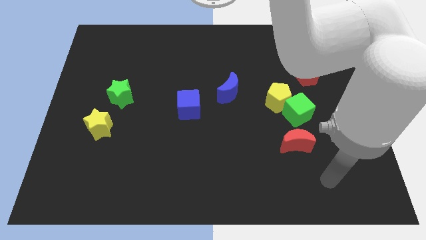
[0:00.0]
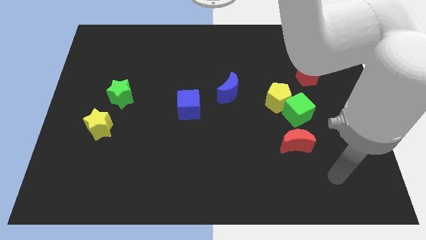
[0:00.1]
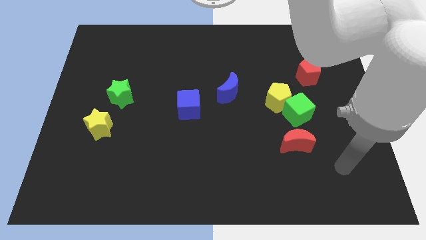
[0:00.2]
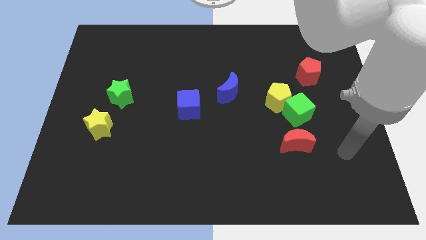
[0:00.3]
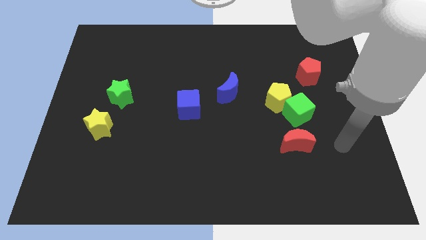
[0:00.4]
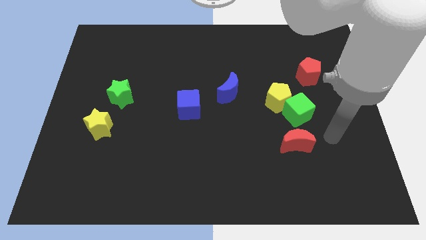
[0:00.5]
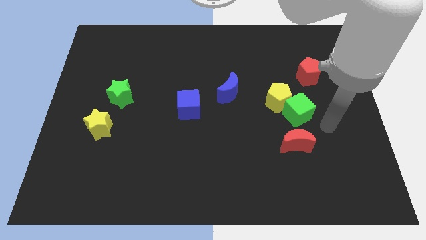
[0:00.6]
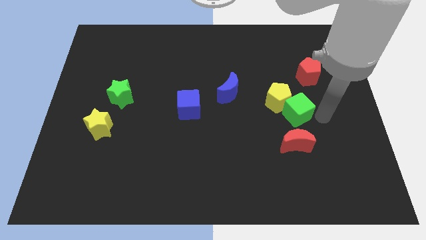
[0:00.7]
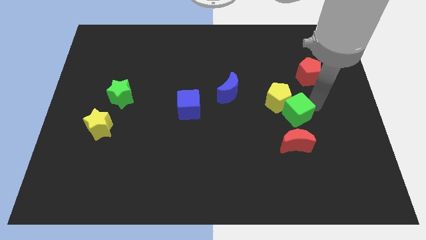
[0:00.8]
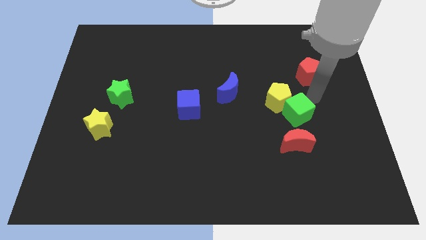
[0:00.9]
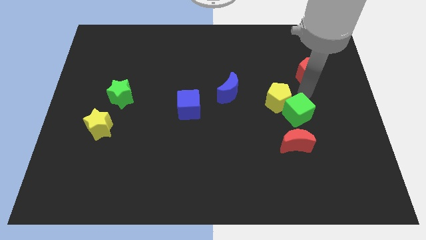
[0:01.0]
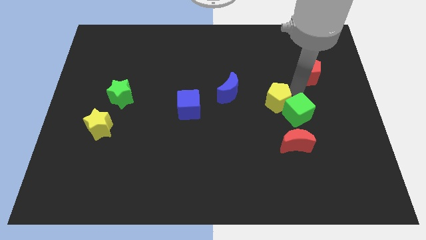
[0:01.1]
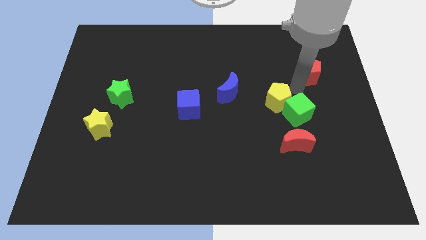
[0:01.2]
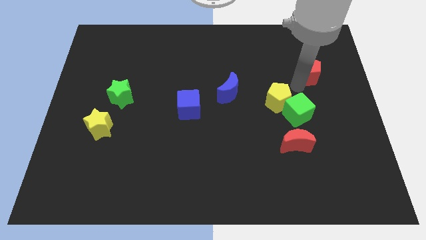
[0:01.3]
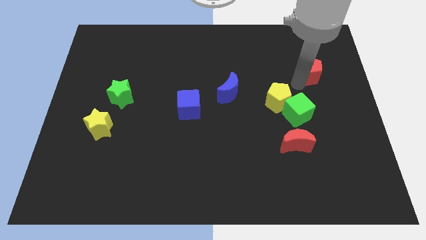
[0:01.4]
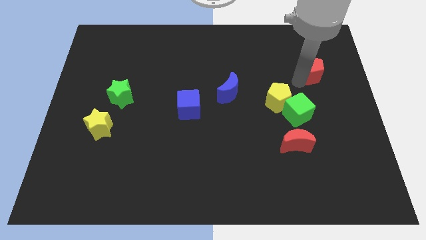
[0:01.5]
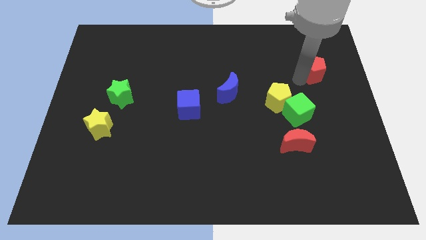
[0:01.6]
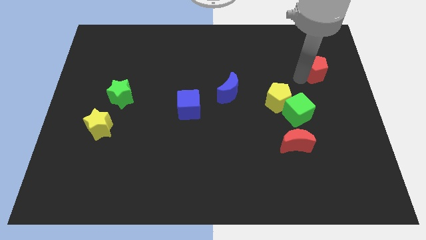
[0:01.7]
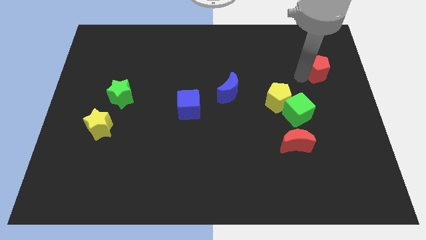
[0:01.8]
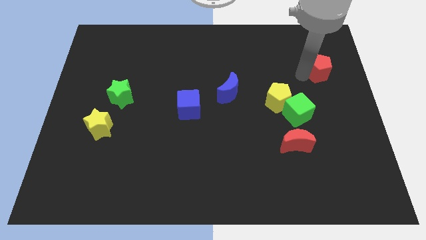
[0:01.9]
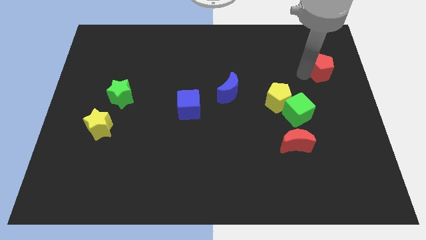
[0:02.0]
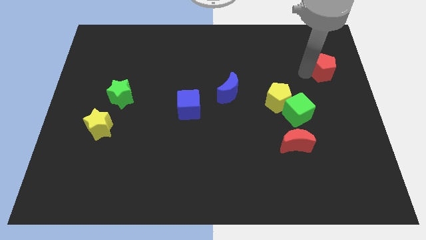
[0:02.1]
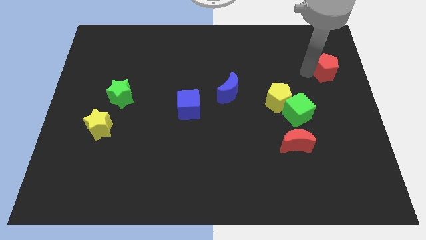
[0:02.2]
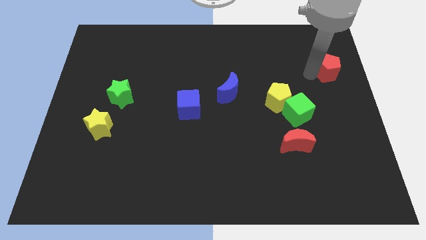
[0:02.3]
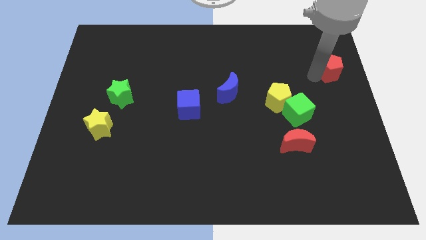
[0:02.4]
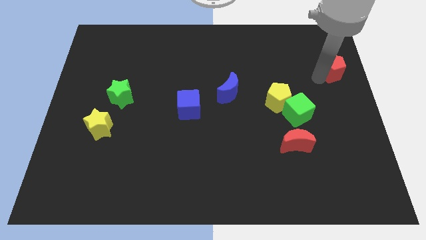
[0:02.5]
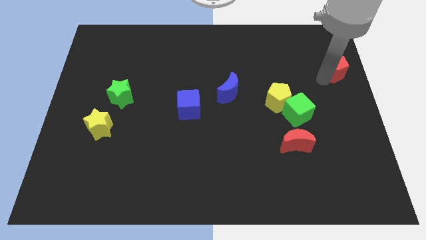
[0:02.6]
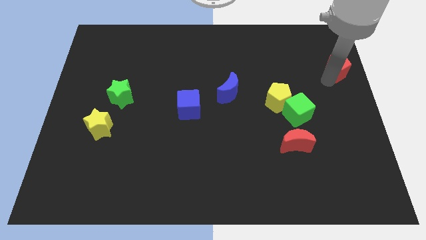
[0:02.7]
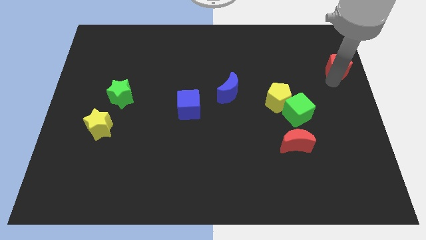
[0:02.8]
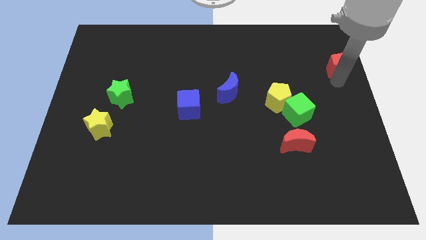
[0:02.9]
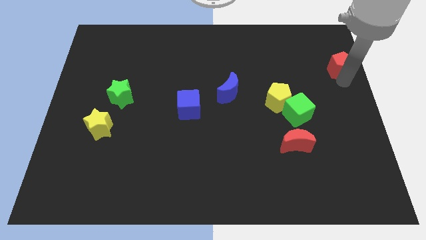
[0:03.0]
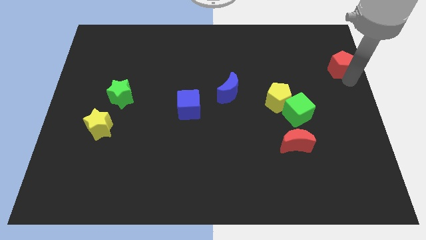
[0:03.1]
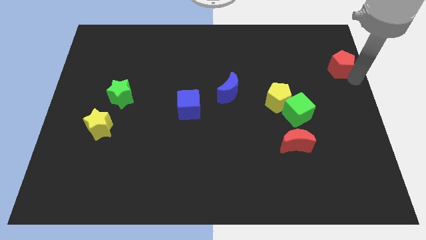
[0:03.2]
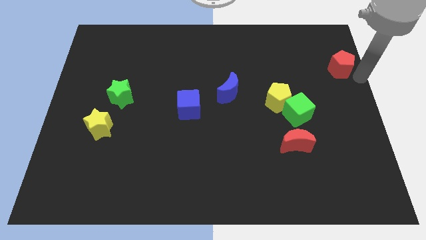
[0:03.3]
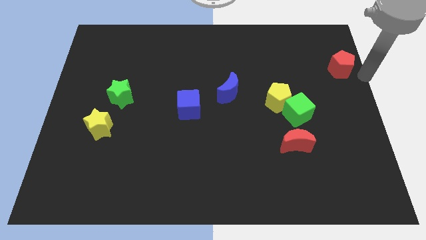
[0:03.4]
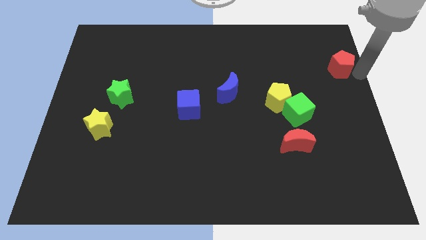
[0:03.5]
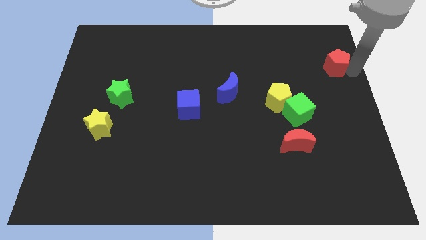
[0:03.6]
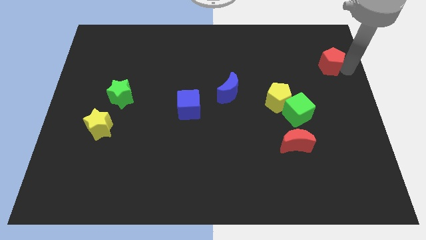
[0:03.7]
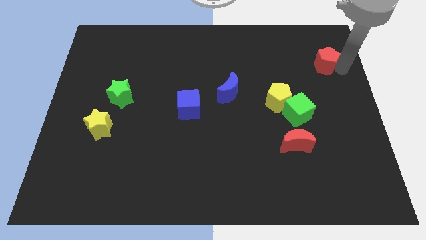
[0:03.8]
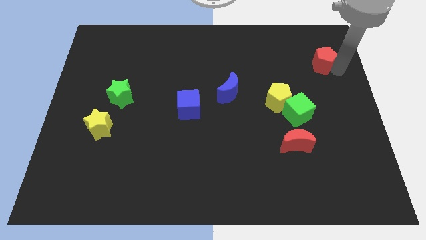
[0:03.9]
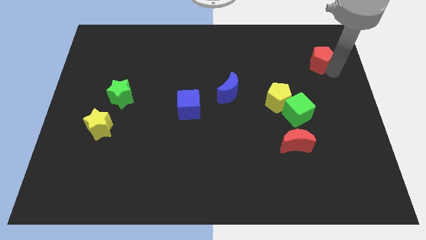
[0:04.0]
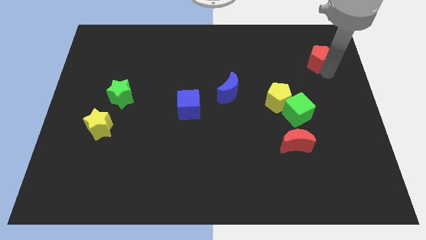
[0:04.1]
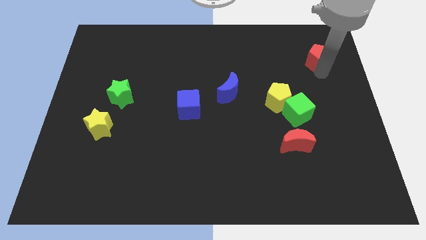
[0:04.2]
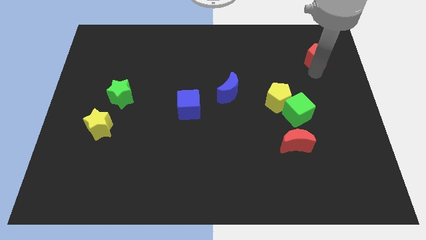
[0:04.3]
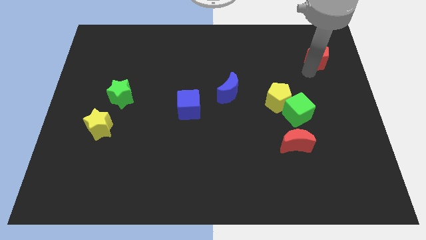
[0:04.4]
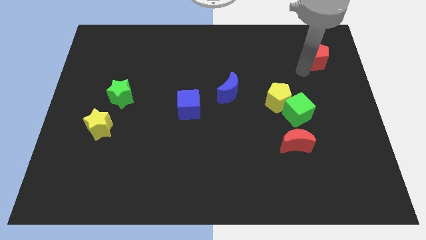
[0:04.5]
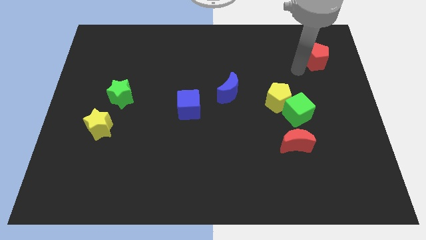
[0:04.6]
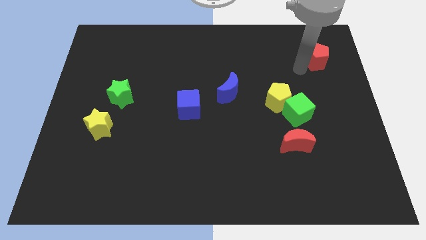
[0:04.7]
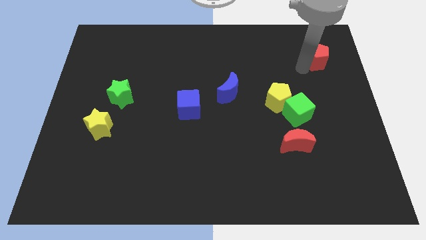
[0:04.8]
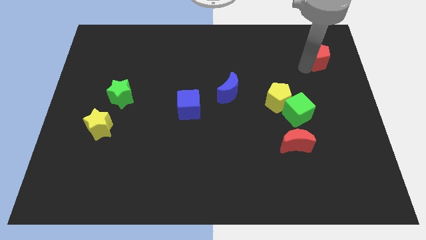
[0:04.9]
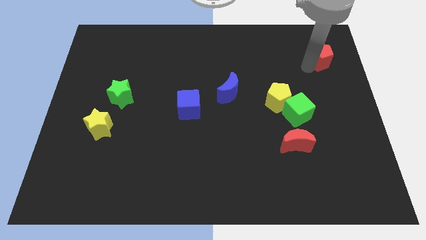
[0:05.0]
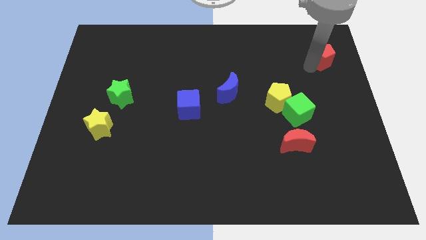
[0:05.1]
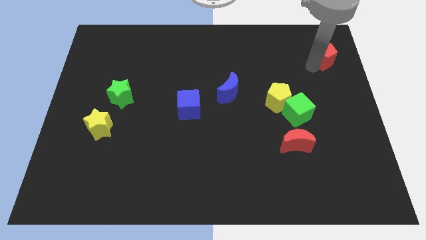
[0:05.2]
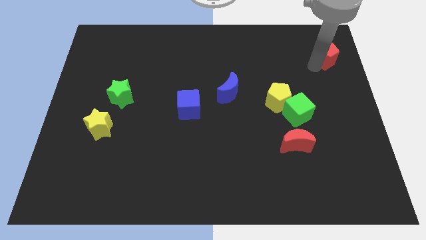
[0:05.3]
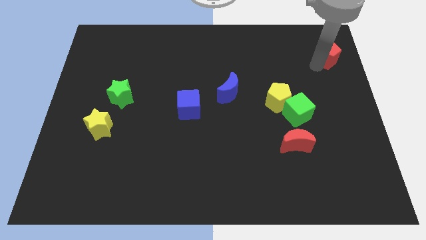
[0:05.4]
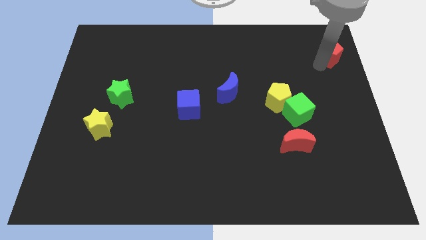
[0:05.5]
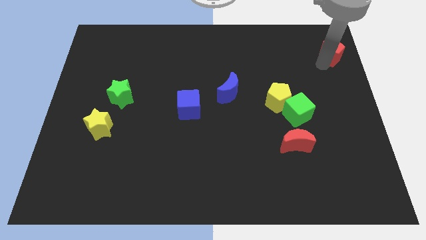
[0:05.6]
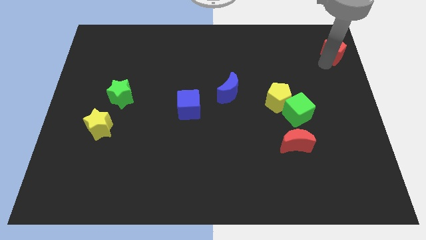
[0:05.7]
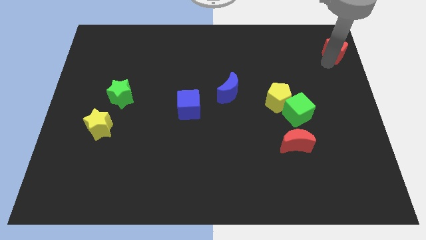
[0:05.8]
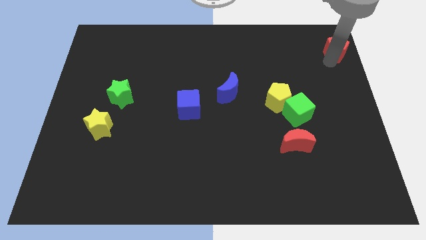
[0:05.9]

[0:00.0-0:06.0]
slide the red pentagon to the top right of the board

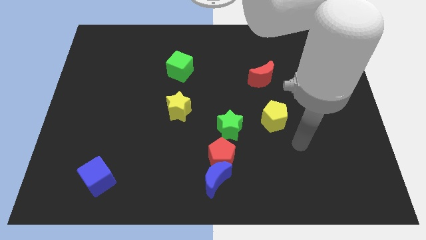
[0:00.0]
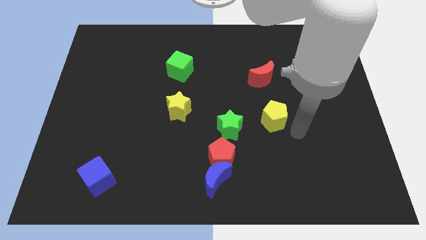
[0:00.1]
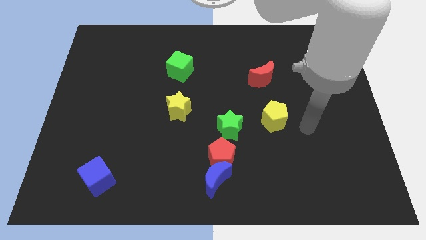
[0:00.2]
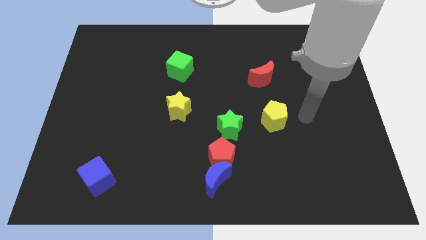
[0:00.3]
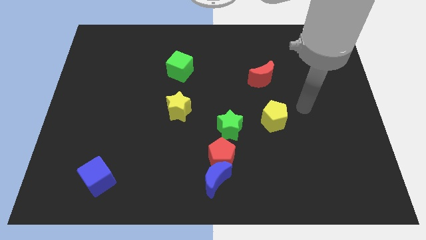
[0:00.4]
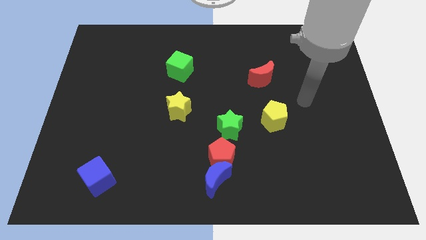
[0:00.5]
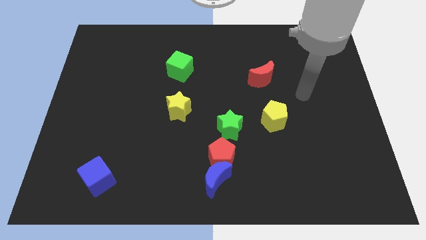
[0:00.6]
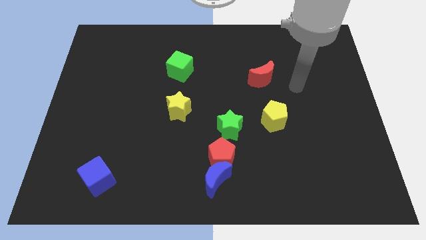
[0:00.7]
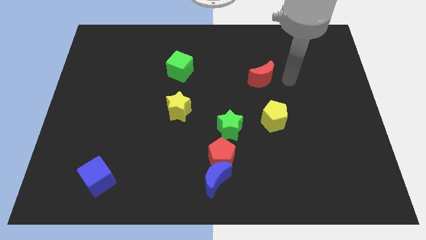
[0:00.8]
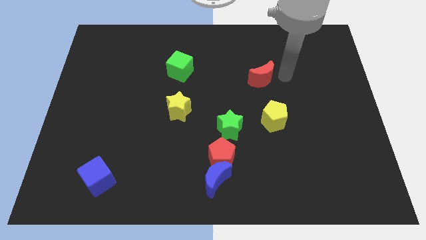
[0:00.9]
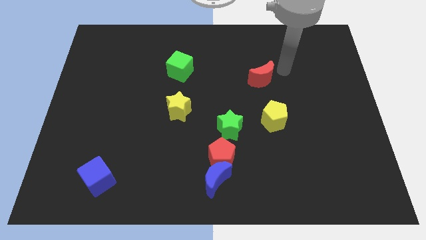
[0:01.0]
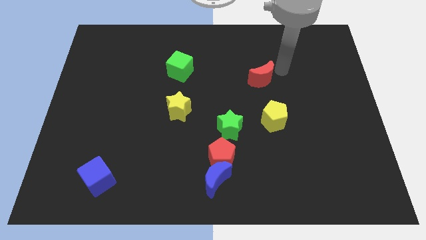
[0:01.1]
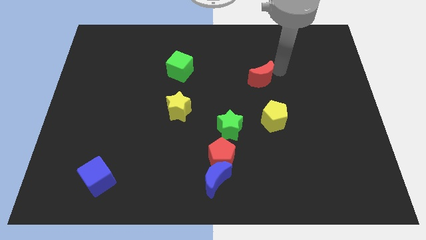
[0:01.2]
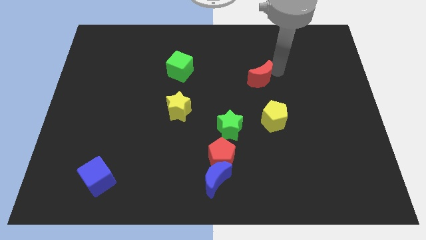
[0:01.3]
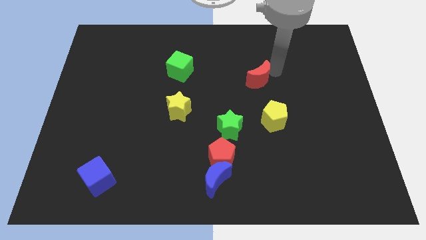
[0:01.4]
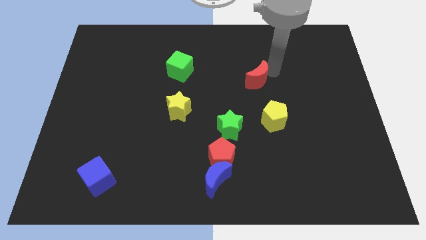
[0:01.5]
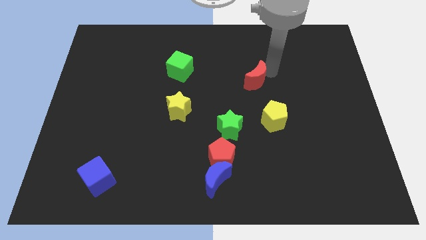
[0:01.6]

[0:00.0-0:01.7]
move the red moon to the center
